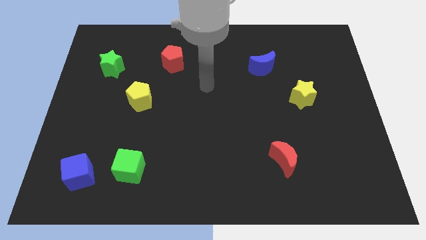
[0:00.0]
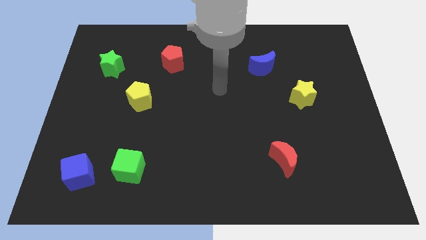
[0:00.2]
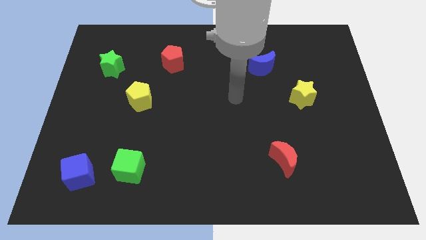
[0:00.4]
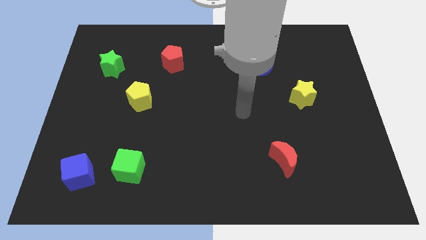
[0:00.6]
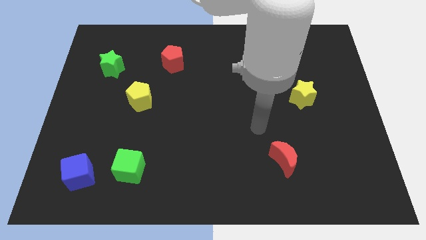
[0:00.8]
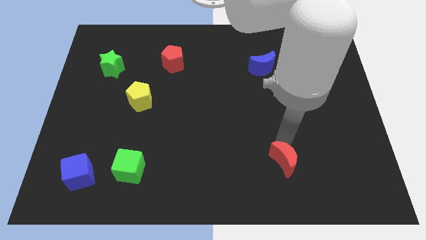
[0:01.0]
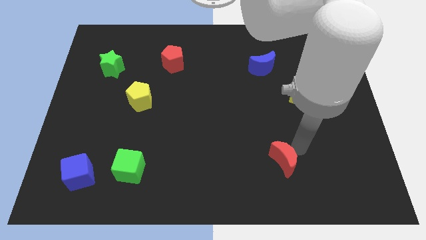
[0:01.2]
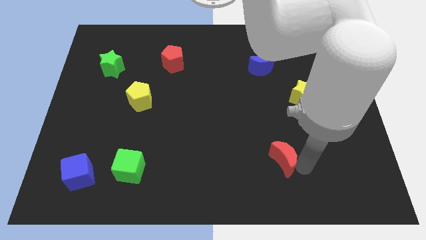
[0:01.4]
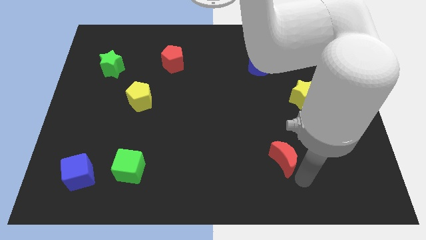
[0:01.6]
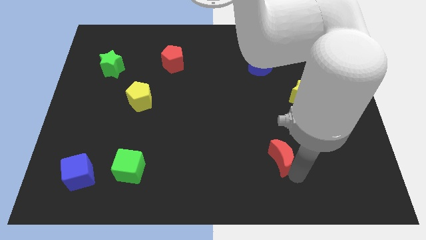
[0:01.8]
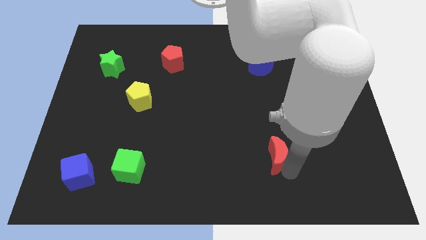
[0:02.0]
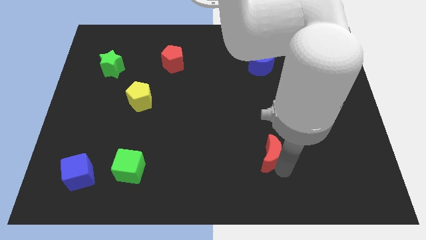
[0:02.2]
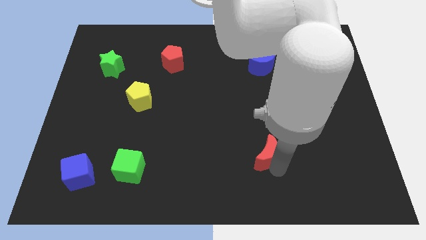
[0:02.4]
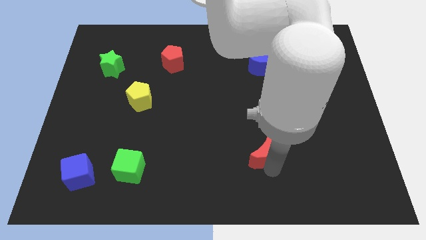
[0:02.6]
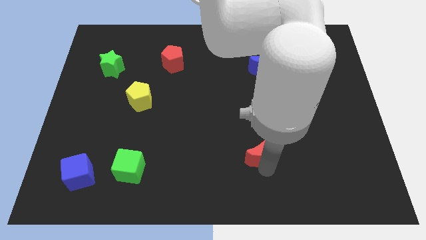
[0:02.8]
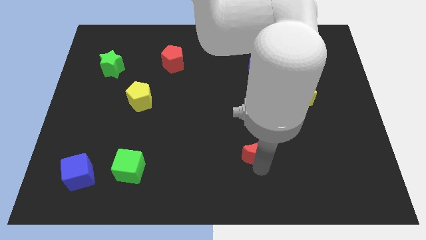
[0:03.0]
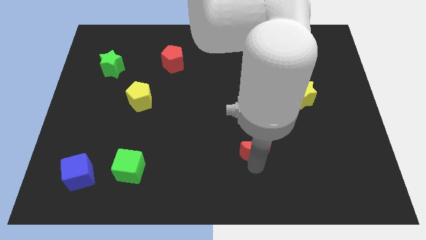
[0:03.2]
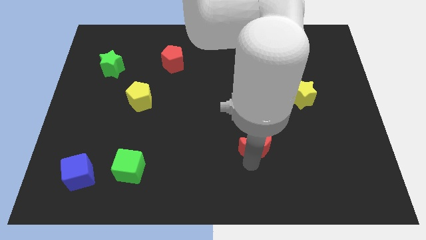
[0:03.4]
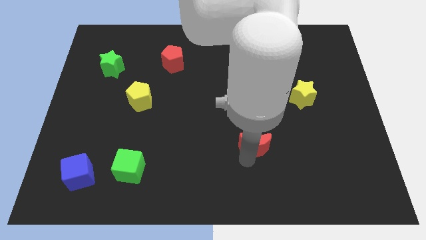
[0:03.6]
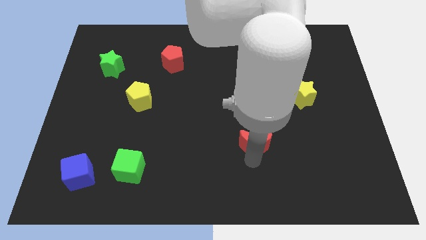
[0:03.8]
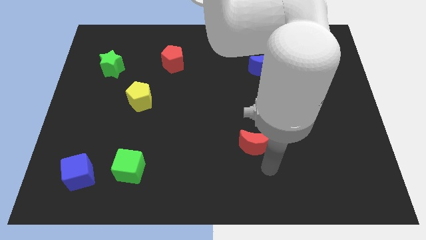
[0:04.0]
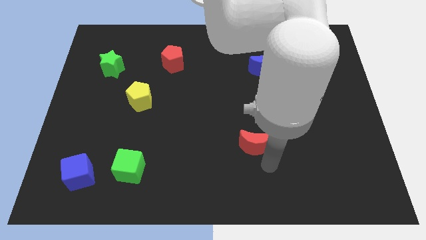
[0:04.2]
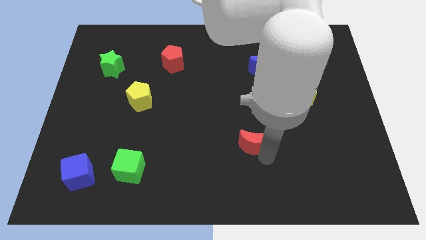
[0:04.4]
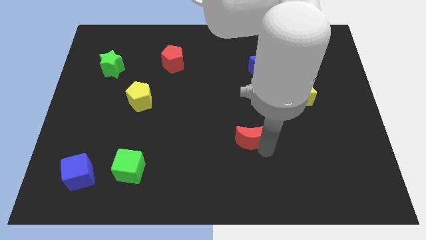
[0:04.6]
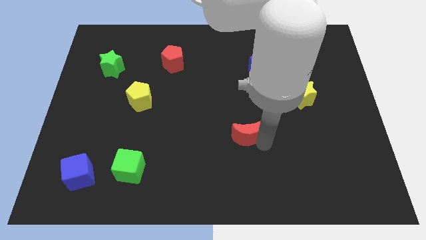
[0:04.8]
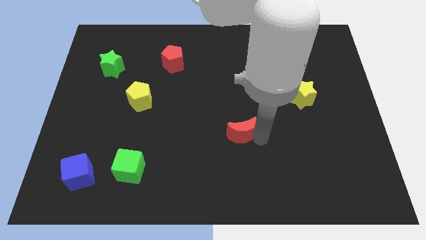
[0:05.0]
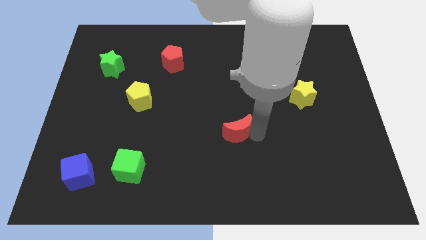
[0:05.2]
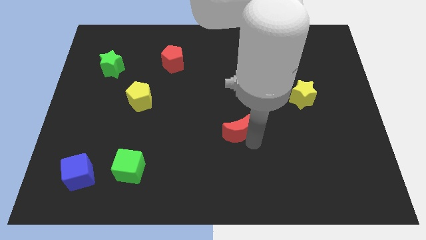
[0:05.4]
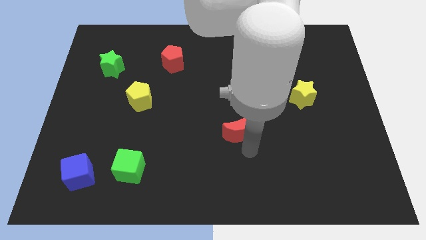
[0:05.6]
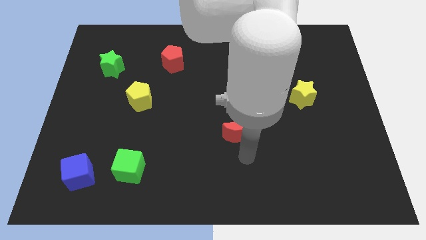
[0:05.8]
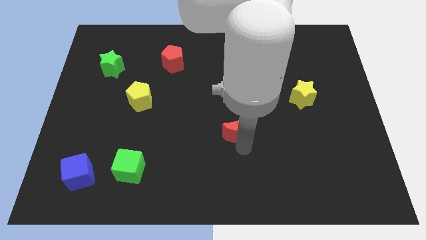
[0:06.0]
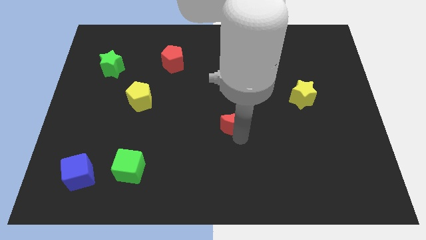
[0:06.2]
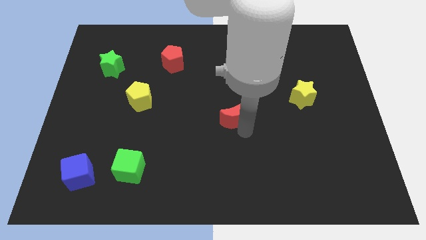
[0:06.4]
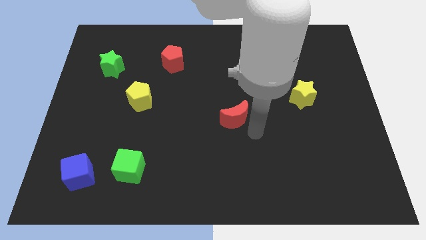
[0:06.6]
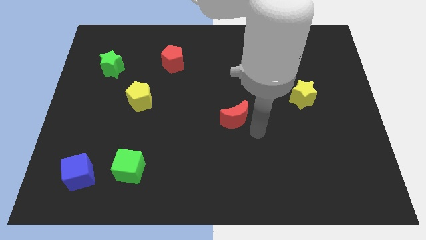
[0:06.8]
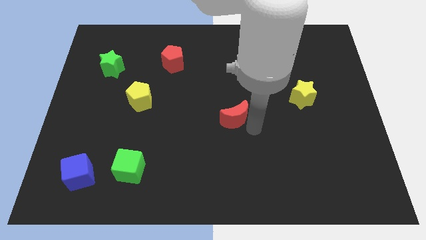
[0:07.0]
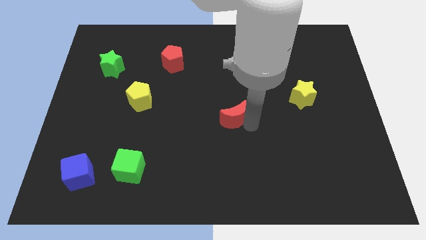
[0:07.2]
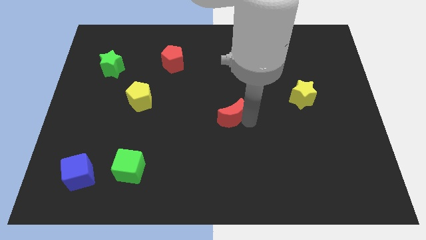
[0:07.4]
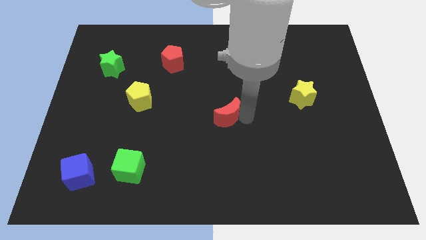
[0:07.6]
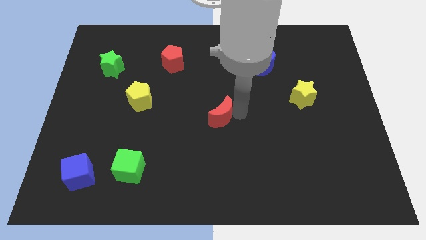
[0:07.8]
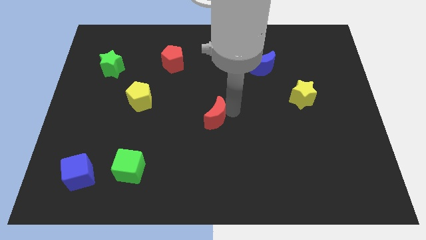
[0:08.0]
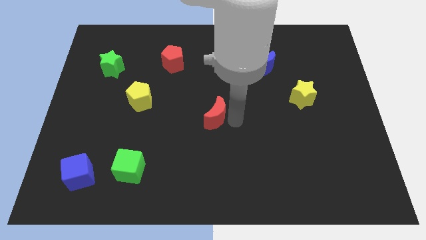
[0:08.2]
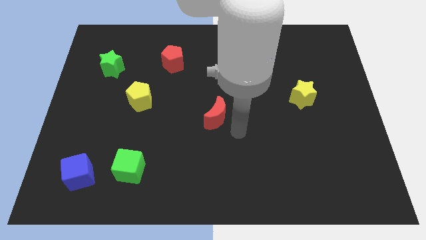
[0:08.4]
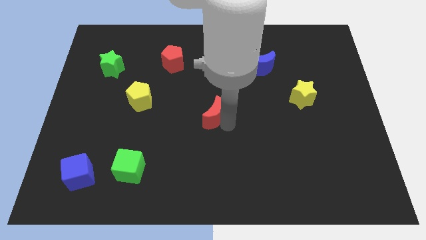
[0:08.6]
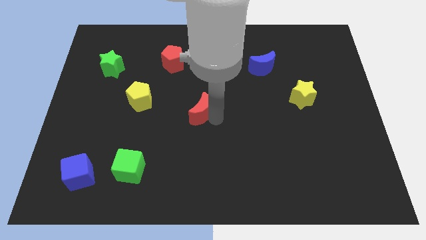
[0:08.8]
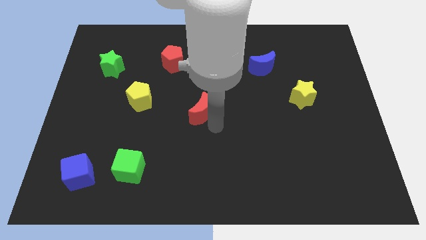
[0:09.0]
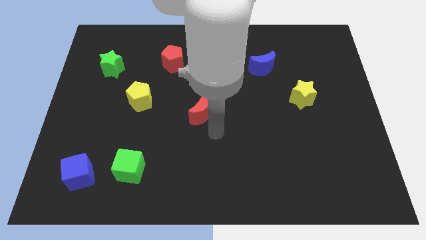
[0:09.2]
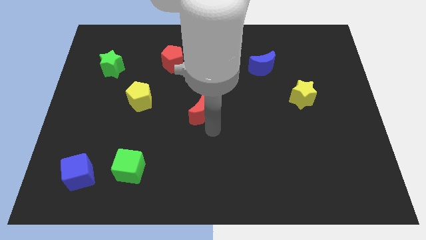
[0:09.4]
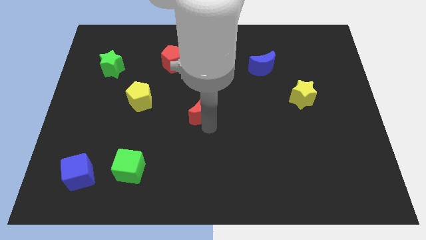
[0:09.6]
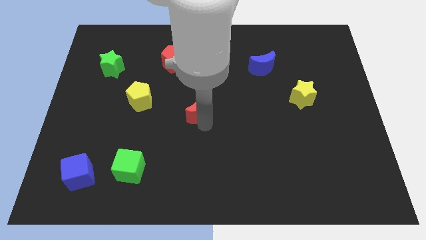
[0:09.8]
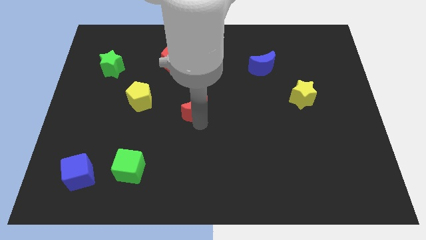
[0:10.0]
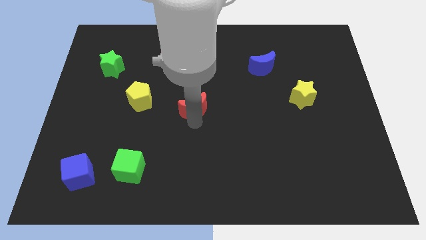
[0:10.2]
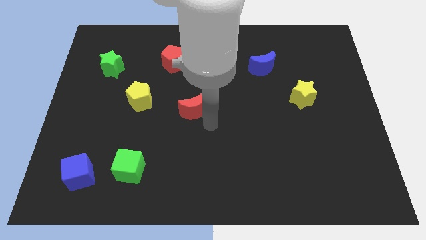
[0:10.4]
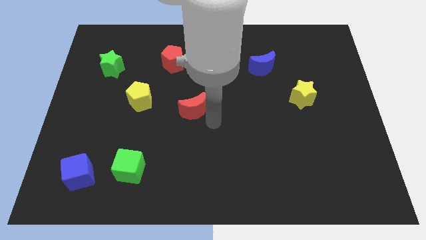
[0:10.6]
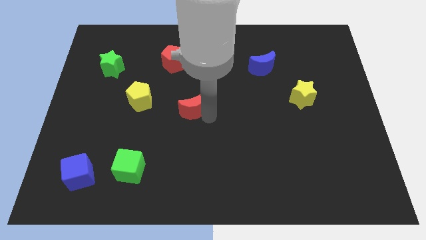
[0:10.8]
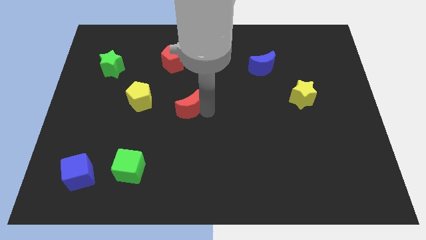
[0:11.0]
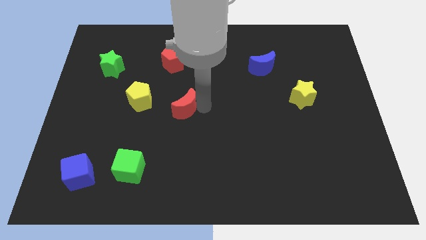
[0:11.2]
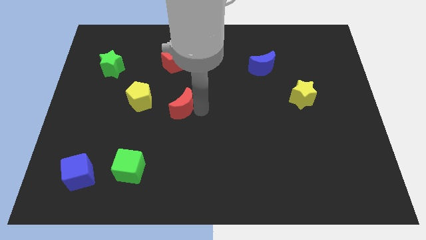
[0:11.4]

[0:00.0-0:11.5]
push the red moon below the red pentagon

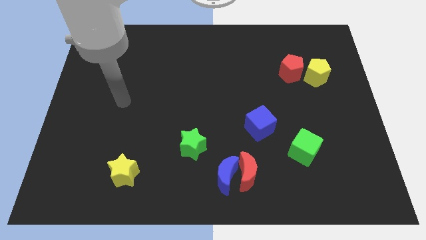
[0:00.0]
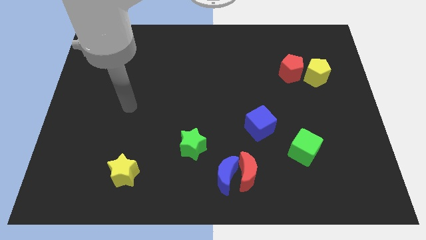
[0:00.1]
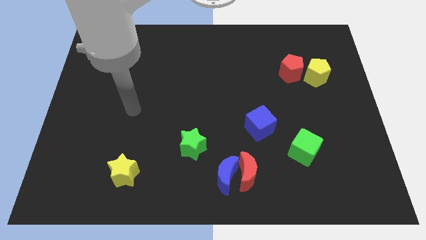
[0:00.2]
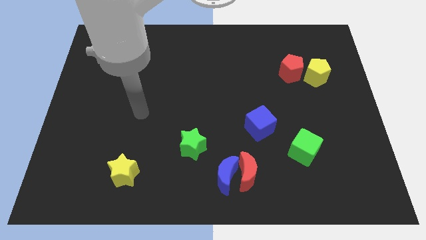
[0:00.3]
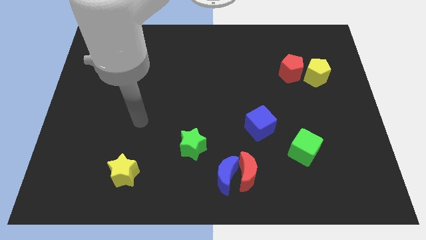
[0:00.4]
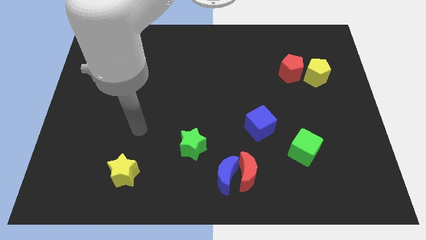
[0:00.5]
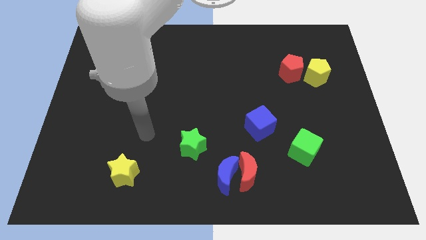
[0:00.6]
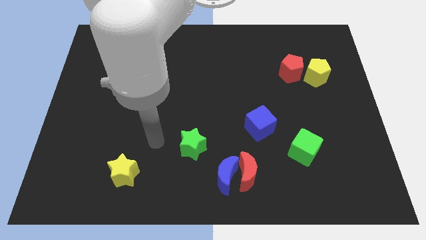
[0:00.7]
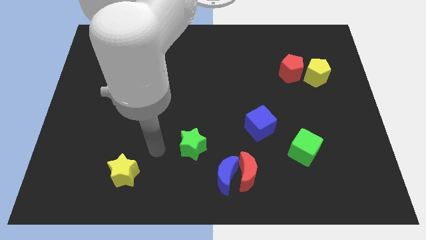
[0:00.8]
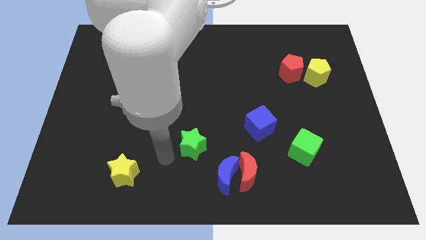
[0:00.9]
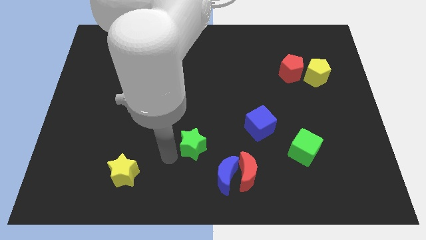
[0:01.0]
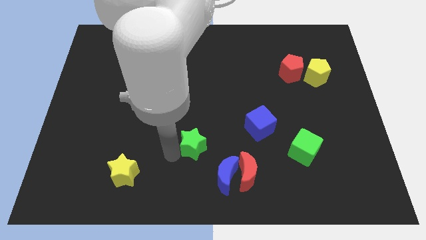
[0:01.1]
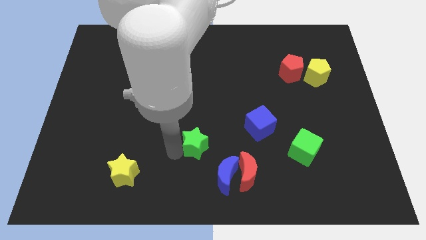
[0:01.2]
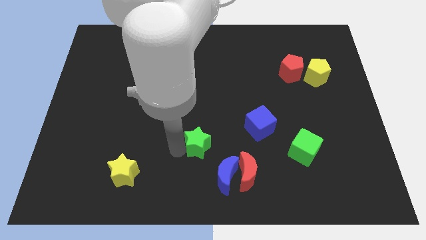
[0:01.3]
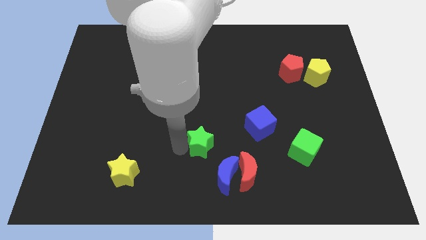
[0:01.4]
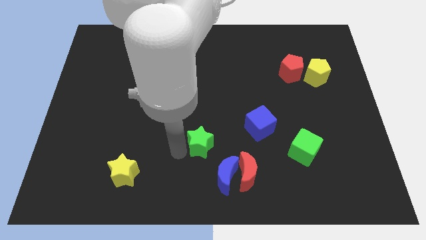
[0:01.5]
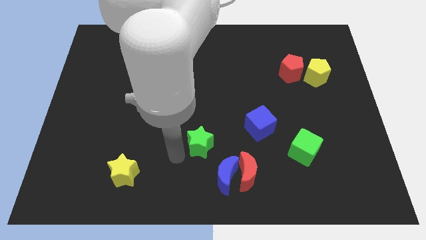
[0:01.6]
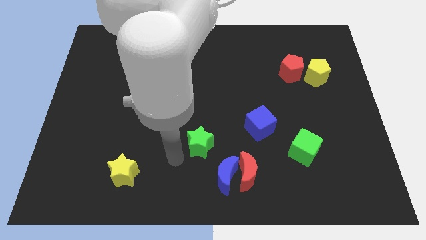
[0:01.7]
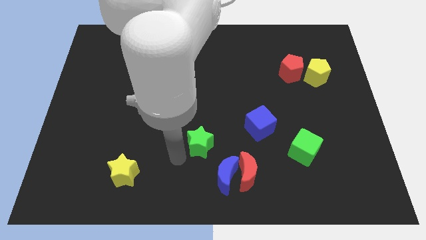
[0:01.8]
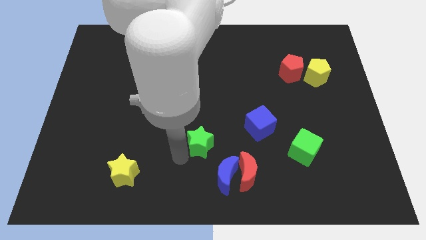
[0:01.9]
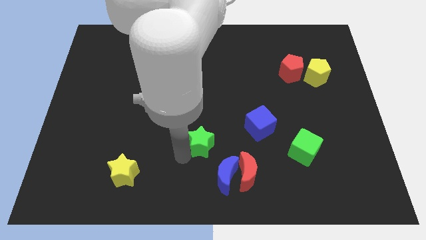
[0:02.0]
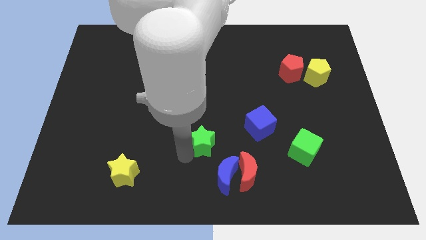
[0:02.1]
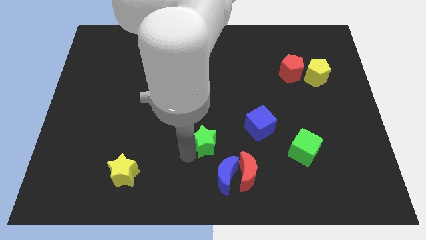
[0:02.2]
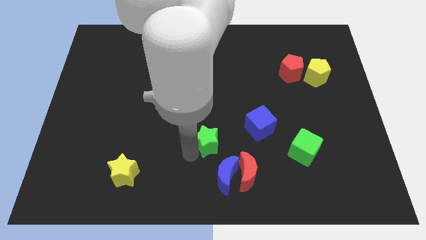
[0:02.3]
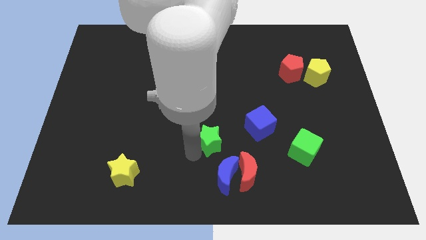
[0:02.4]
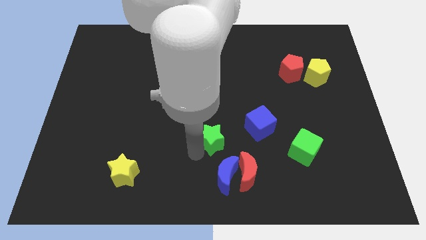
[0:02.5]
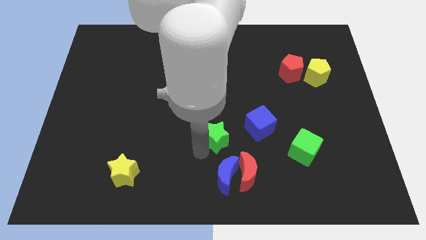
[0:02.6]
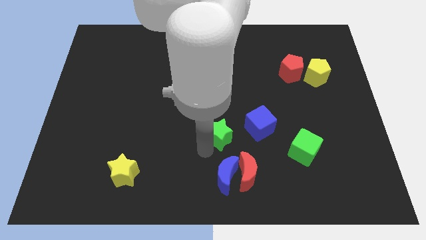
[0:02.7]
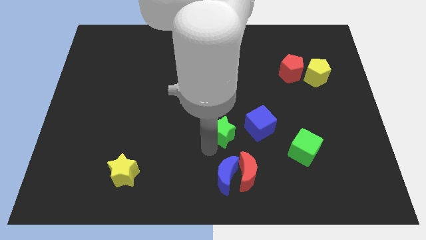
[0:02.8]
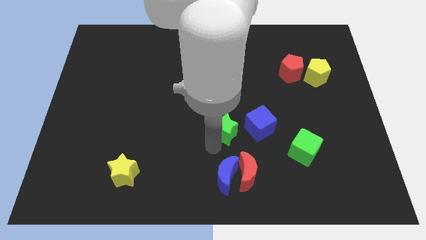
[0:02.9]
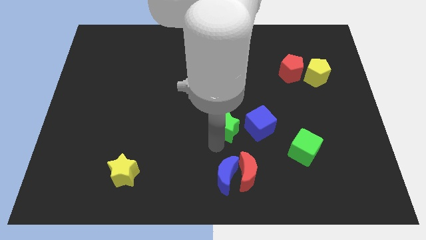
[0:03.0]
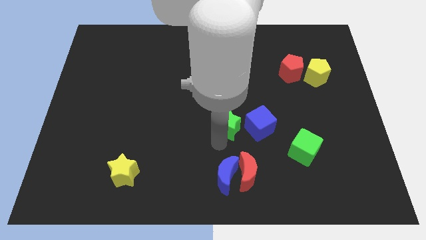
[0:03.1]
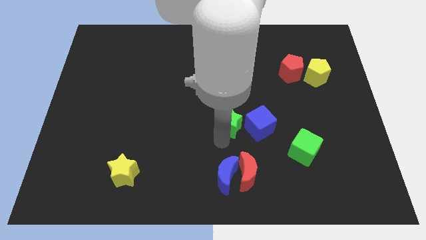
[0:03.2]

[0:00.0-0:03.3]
push the green star to the top left of the blue cube
